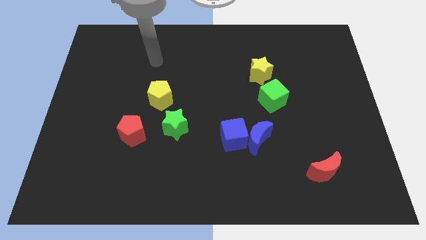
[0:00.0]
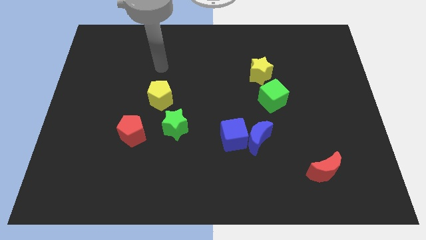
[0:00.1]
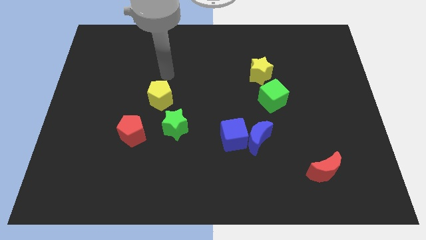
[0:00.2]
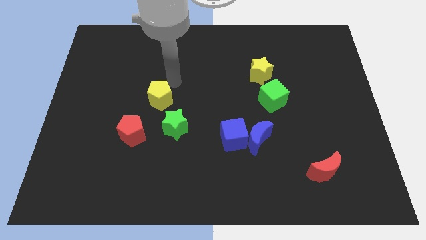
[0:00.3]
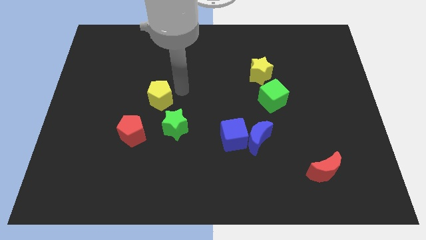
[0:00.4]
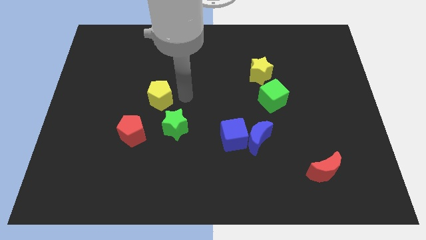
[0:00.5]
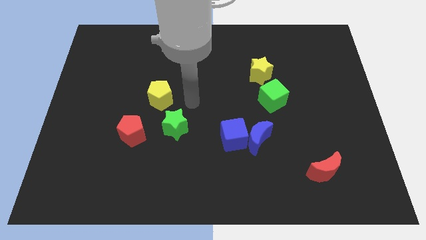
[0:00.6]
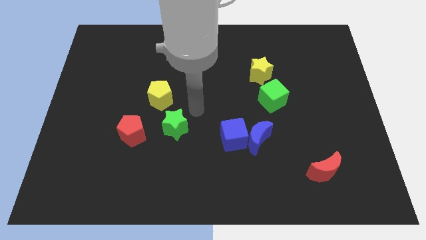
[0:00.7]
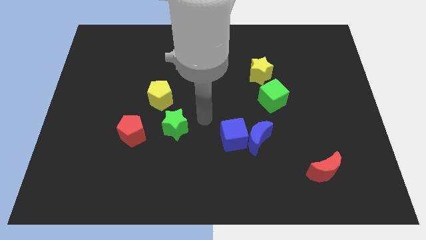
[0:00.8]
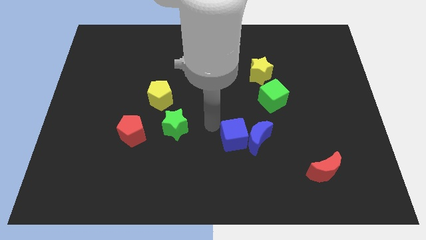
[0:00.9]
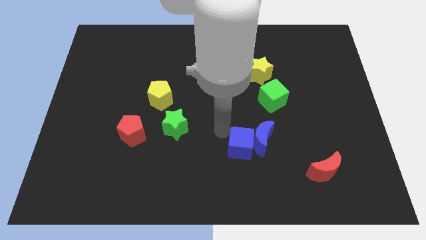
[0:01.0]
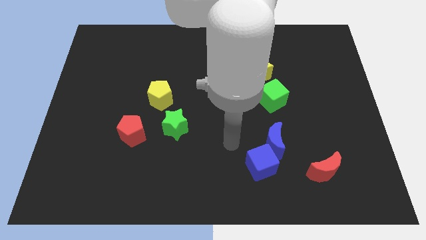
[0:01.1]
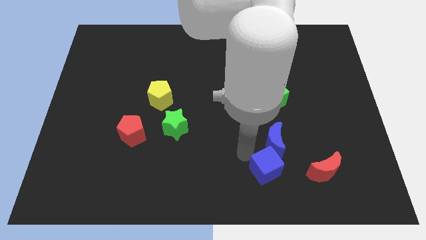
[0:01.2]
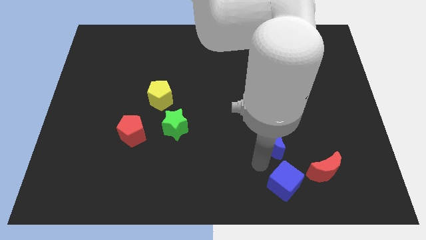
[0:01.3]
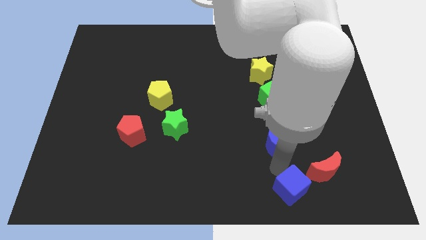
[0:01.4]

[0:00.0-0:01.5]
pull the blue moon apart from the blue cube

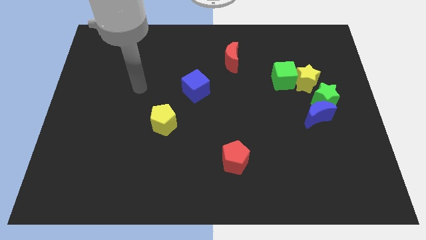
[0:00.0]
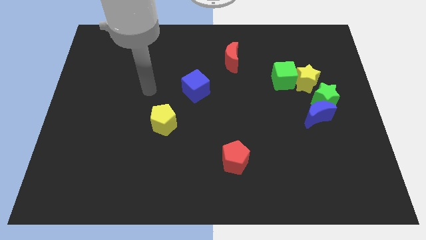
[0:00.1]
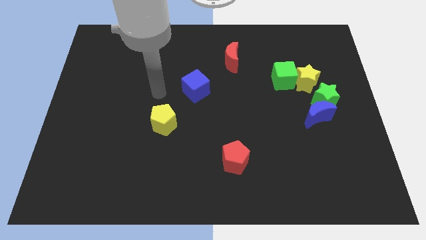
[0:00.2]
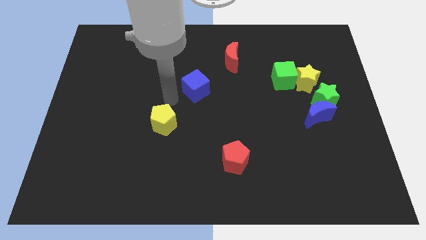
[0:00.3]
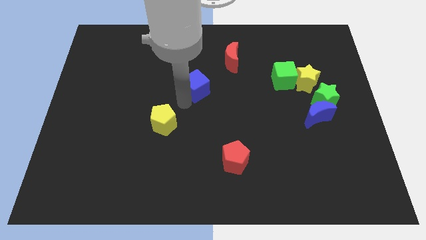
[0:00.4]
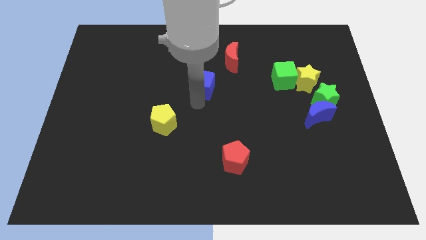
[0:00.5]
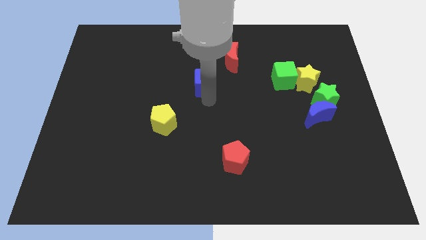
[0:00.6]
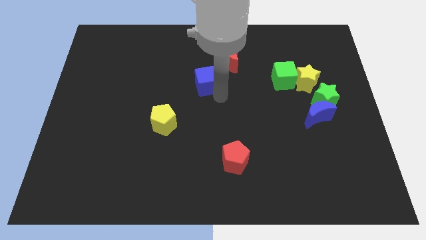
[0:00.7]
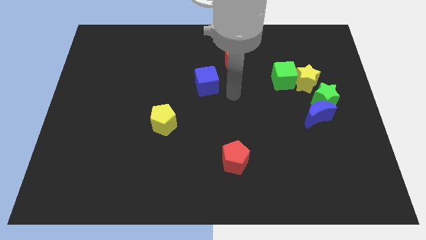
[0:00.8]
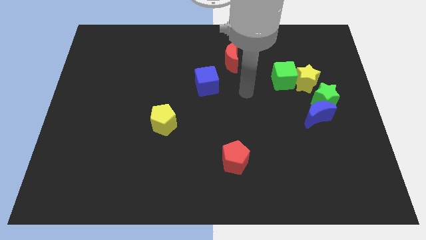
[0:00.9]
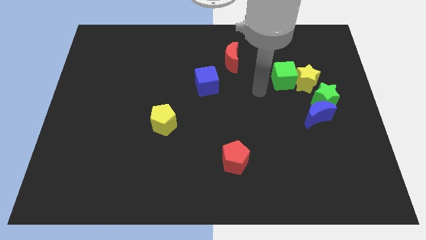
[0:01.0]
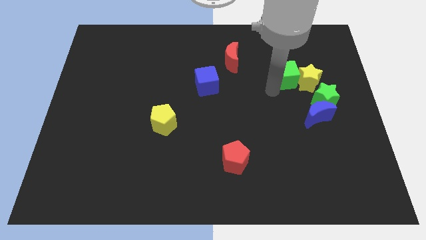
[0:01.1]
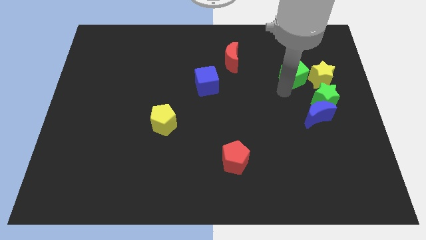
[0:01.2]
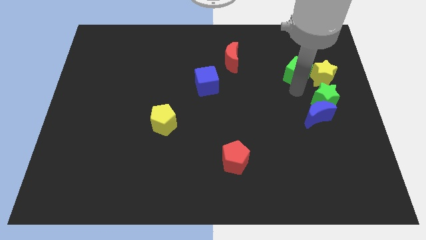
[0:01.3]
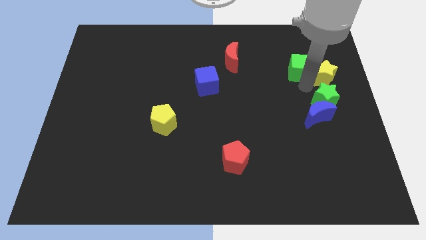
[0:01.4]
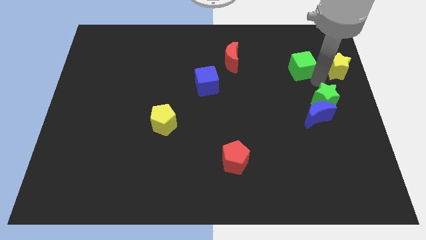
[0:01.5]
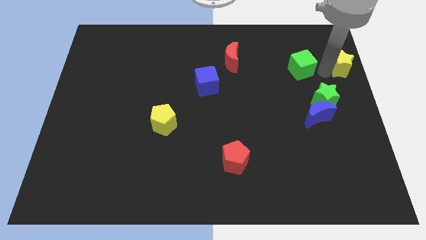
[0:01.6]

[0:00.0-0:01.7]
pull the green cube apart from the yellow star

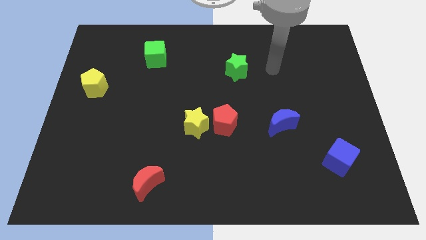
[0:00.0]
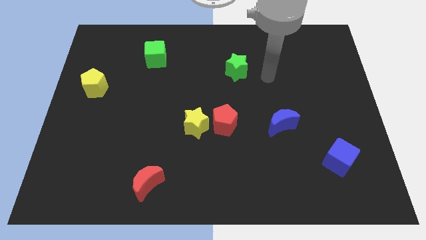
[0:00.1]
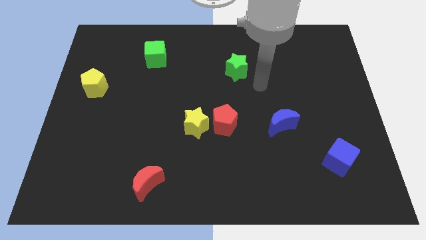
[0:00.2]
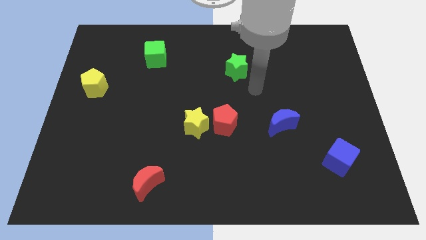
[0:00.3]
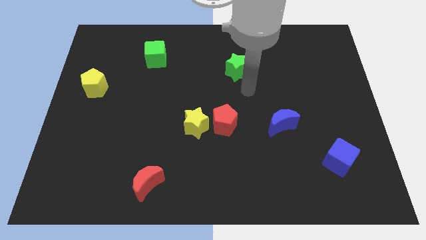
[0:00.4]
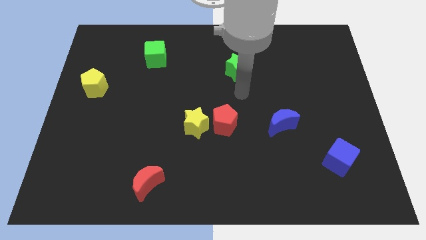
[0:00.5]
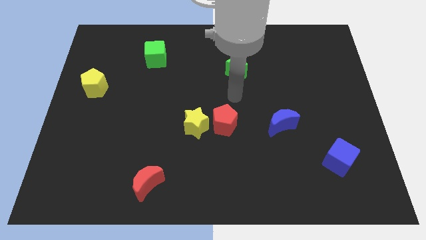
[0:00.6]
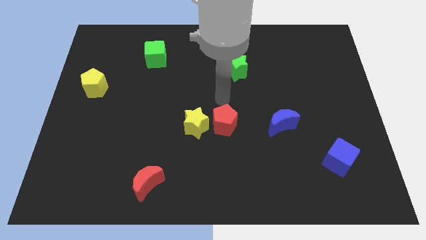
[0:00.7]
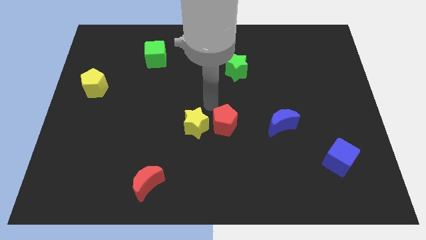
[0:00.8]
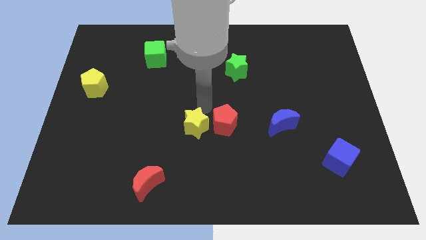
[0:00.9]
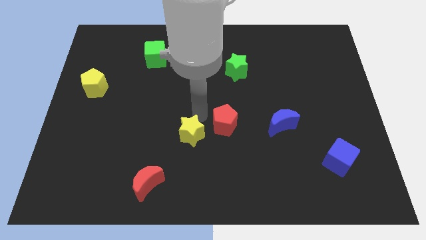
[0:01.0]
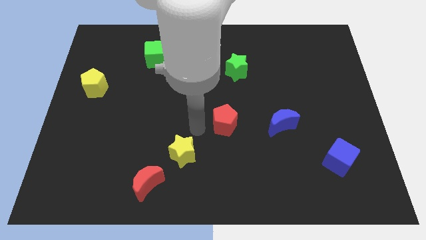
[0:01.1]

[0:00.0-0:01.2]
separate the red pentagon from the yellow star

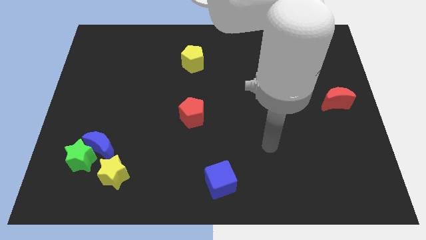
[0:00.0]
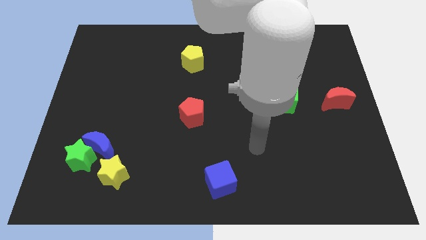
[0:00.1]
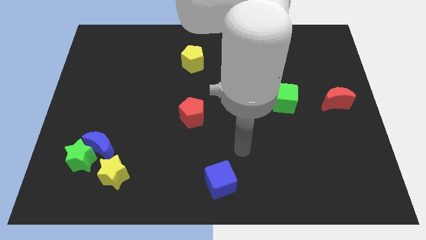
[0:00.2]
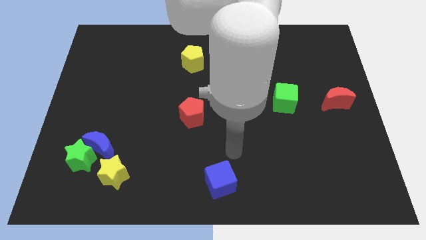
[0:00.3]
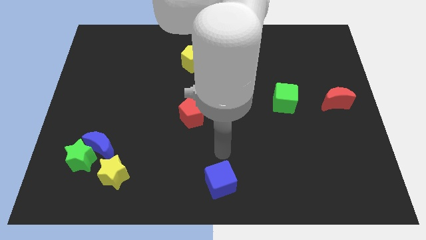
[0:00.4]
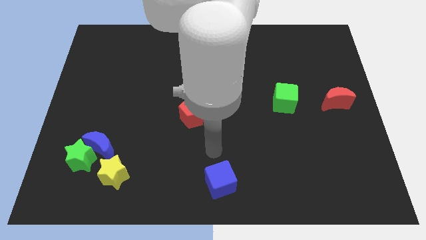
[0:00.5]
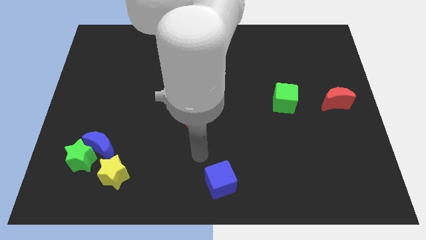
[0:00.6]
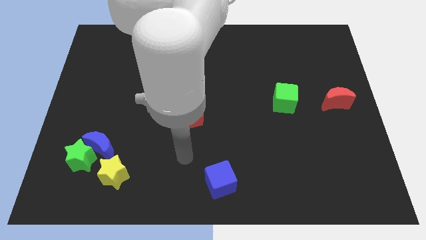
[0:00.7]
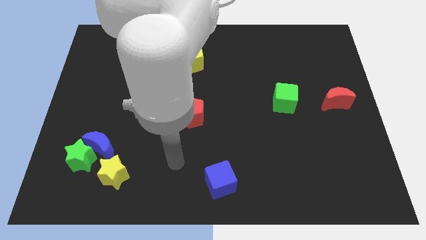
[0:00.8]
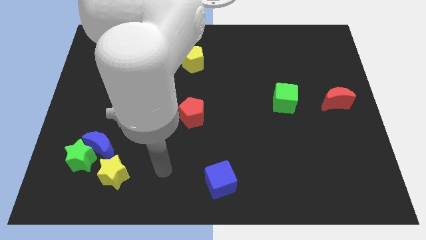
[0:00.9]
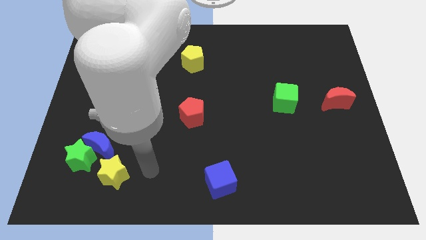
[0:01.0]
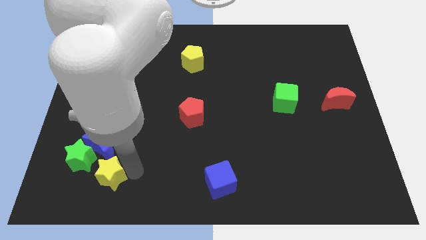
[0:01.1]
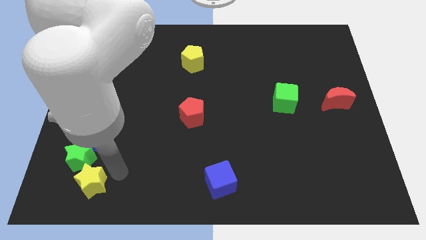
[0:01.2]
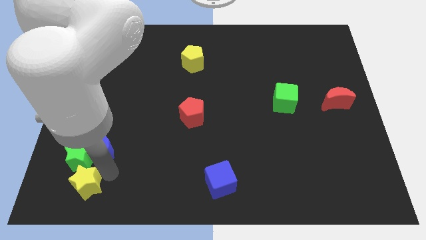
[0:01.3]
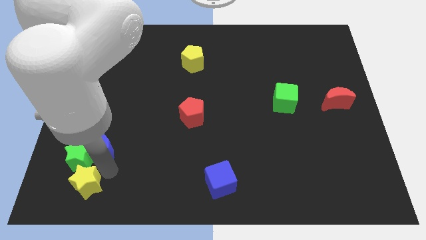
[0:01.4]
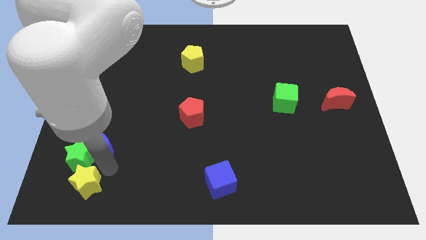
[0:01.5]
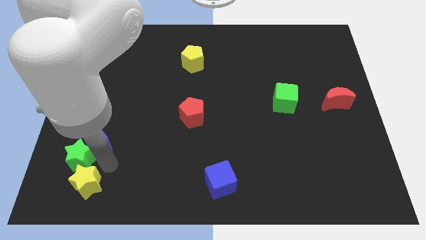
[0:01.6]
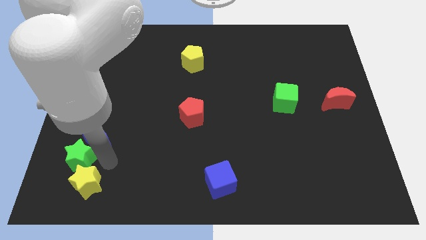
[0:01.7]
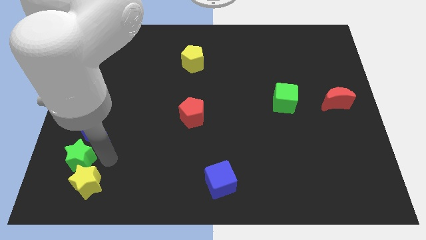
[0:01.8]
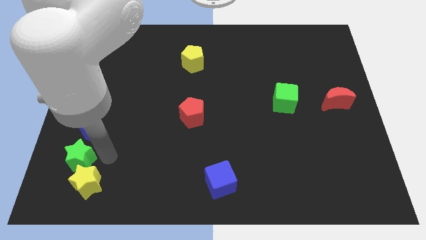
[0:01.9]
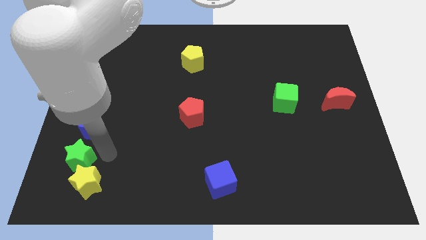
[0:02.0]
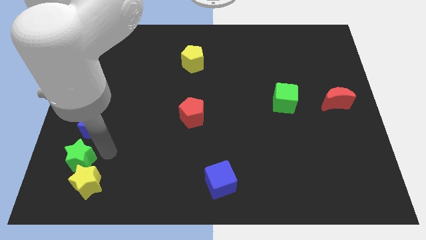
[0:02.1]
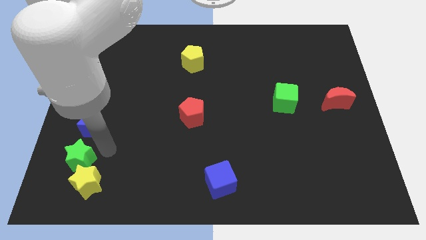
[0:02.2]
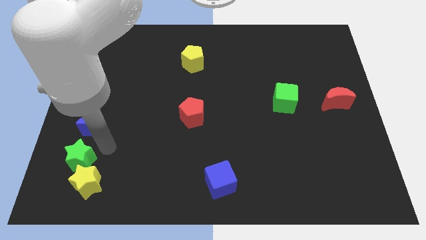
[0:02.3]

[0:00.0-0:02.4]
pull the blue moon apart from the green star and yellow star

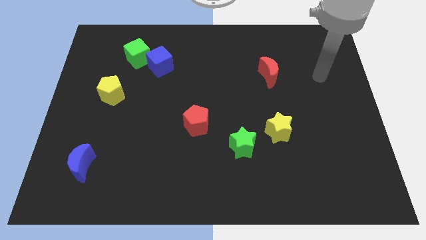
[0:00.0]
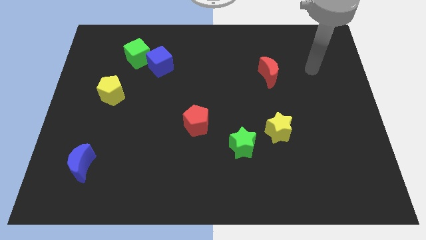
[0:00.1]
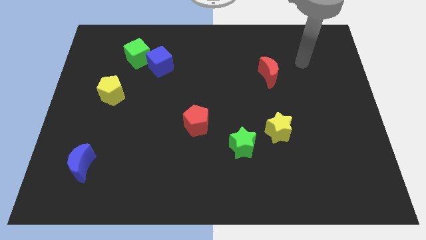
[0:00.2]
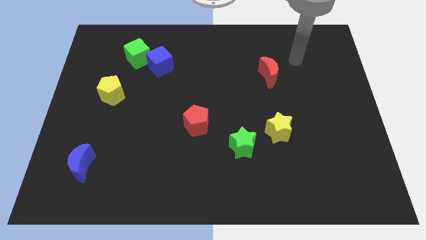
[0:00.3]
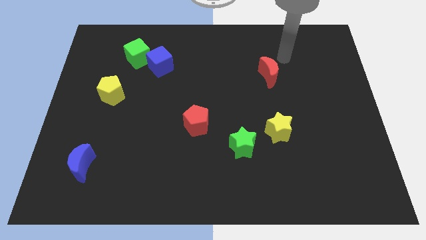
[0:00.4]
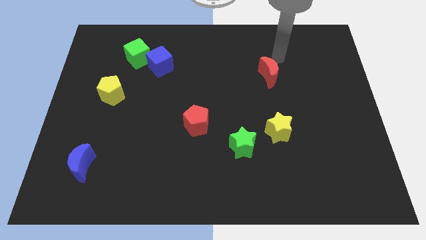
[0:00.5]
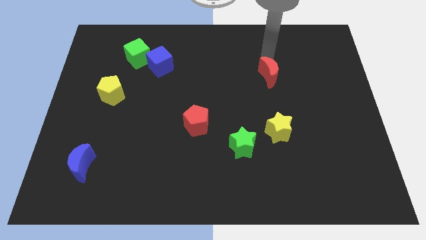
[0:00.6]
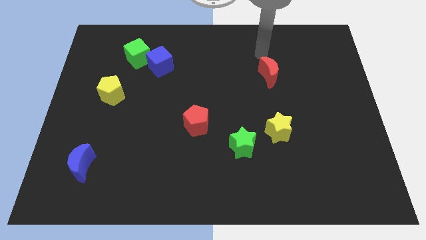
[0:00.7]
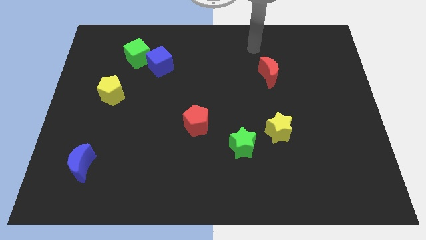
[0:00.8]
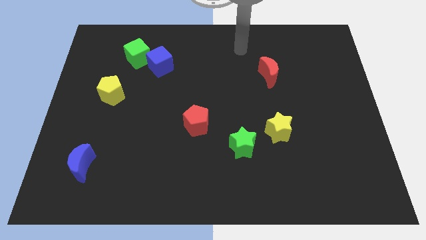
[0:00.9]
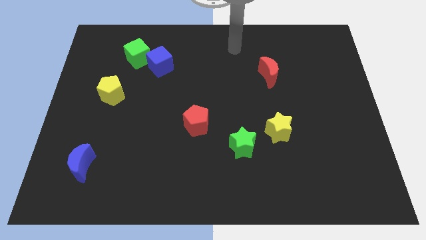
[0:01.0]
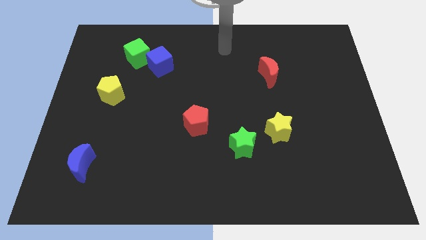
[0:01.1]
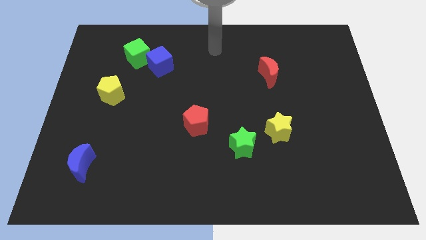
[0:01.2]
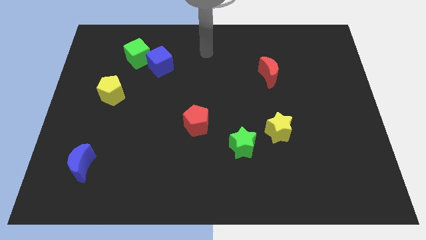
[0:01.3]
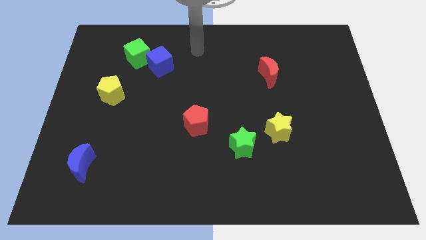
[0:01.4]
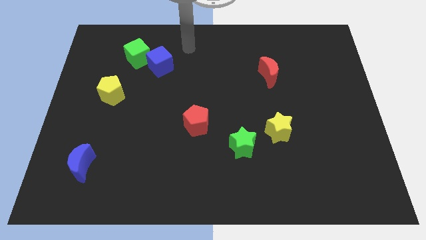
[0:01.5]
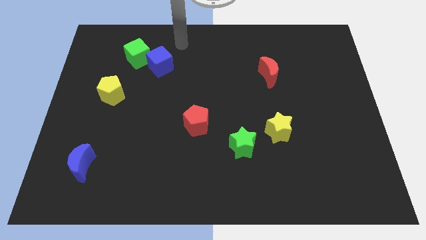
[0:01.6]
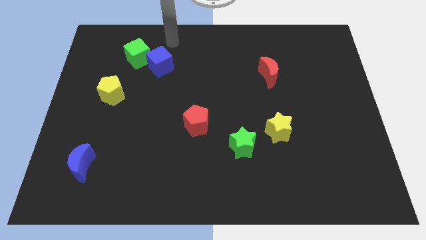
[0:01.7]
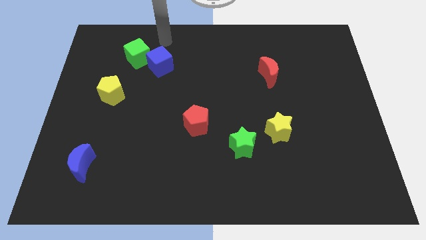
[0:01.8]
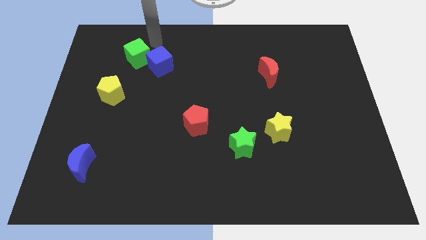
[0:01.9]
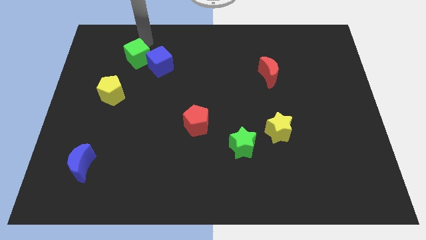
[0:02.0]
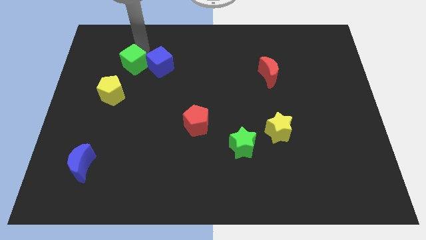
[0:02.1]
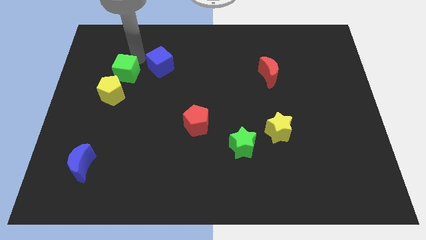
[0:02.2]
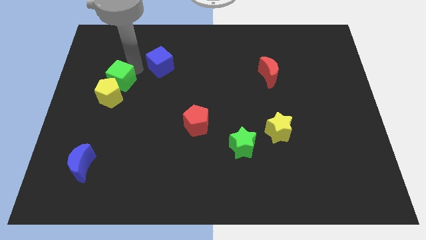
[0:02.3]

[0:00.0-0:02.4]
move the blue cube away from the green cube
